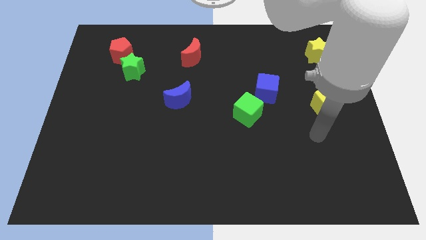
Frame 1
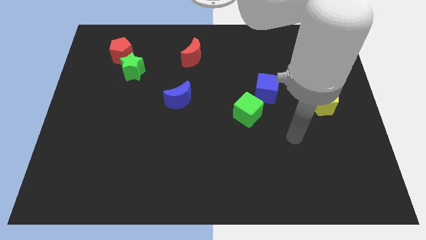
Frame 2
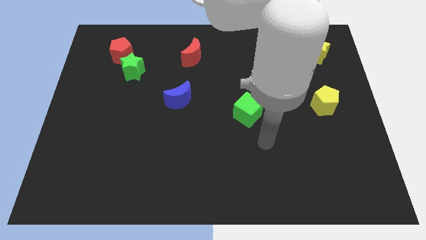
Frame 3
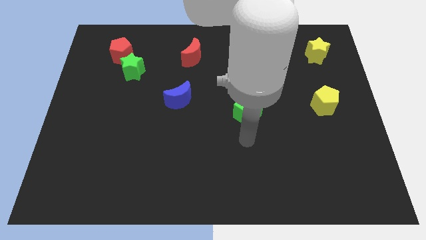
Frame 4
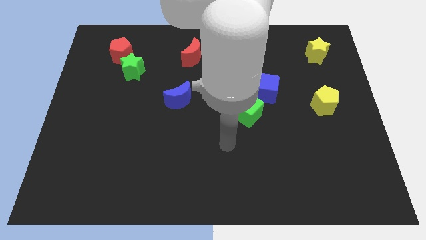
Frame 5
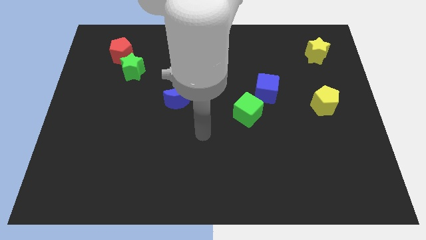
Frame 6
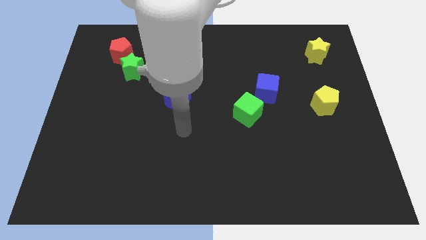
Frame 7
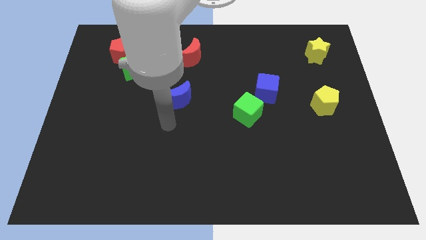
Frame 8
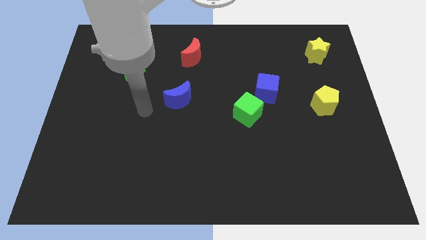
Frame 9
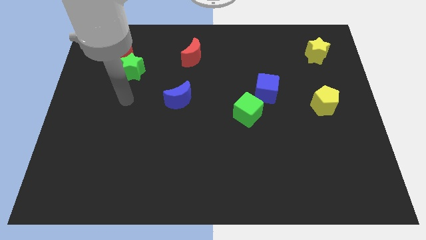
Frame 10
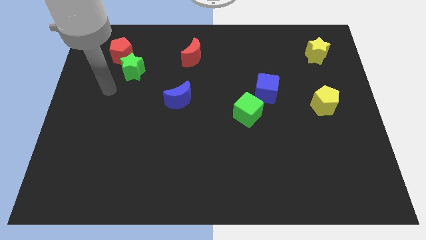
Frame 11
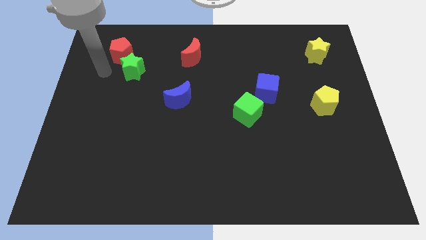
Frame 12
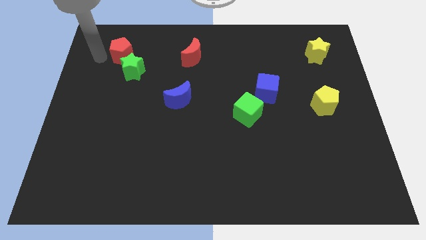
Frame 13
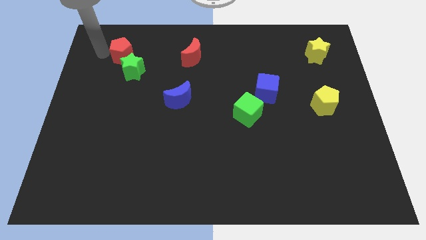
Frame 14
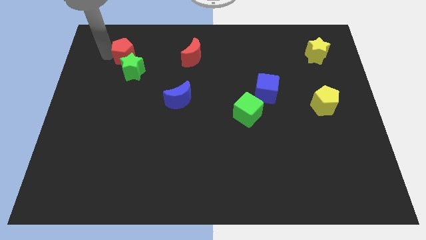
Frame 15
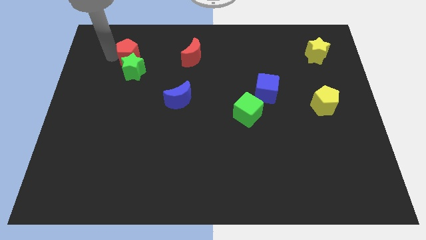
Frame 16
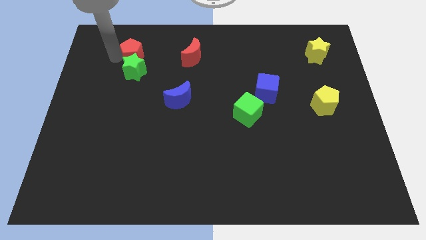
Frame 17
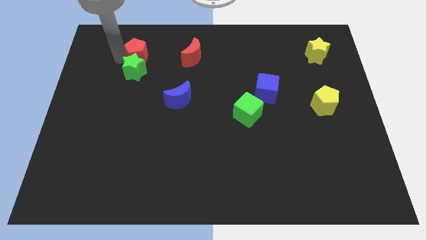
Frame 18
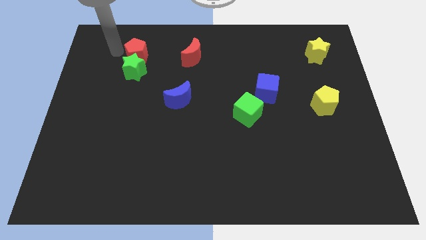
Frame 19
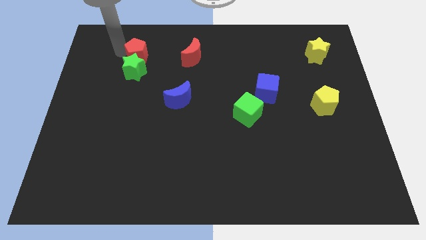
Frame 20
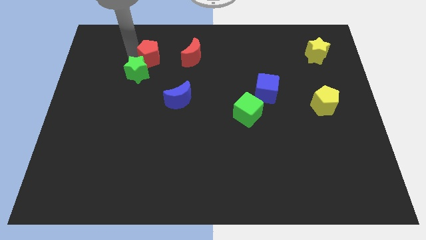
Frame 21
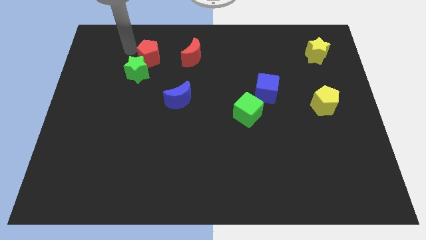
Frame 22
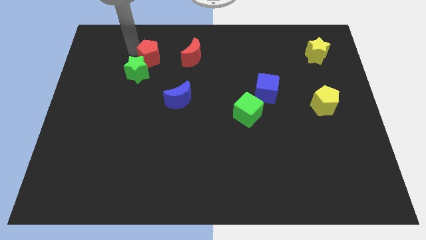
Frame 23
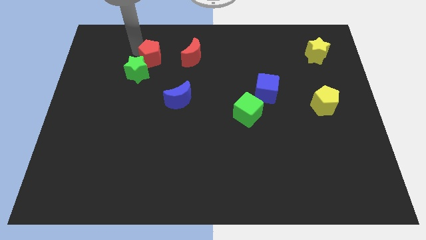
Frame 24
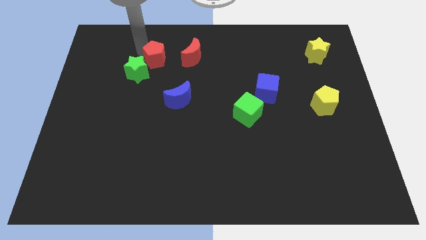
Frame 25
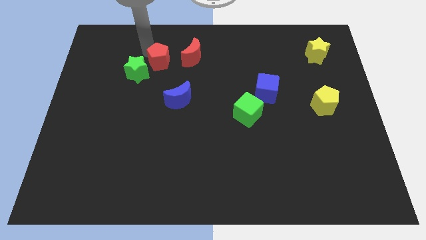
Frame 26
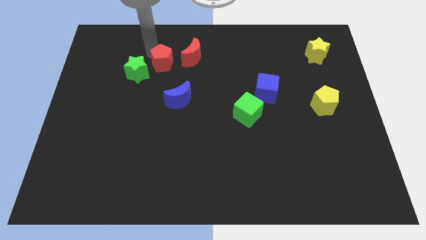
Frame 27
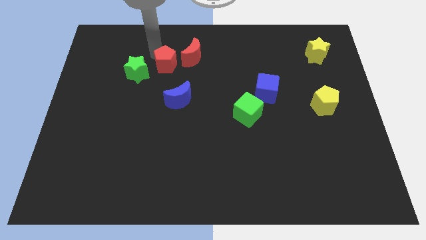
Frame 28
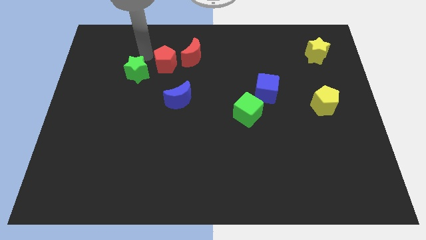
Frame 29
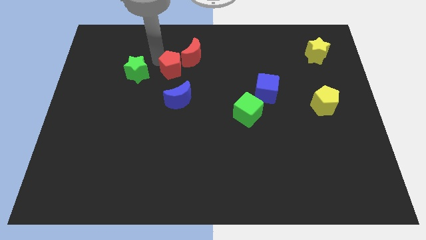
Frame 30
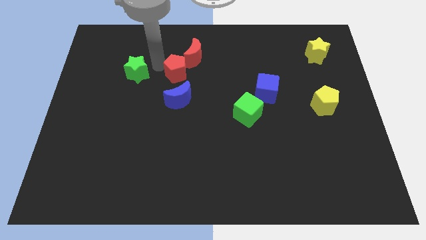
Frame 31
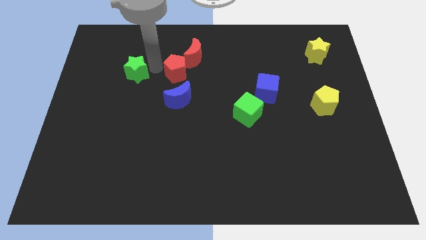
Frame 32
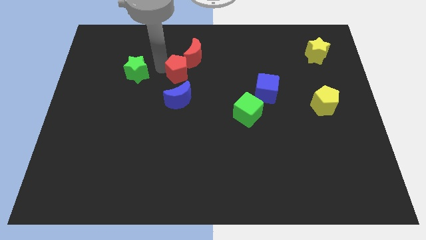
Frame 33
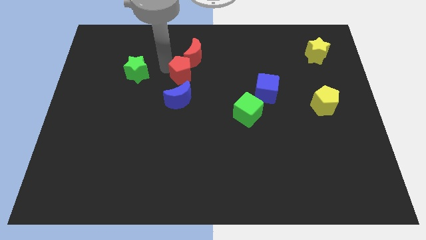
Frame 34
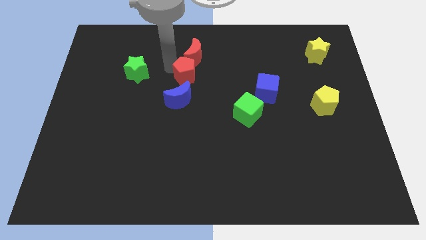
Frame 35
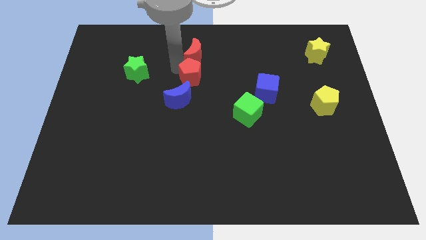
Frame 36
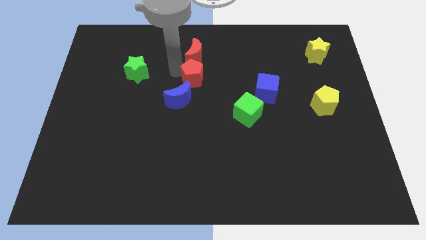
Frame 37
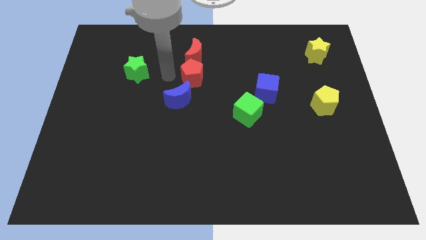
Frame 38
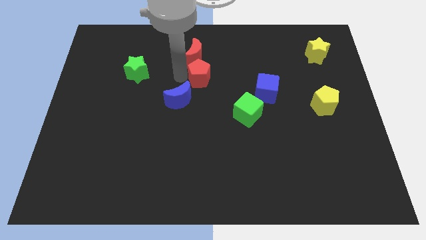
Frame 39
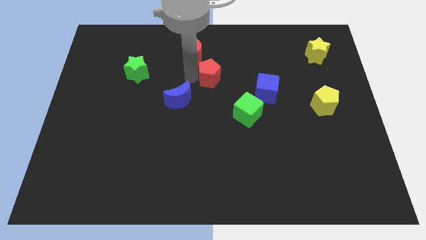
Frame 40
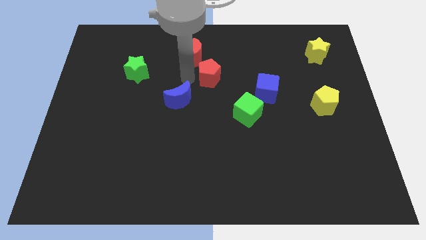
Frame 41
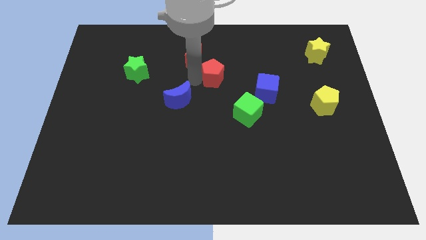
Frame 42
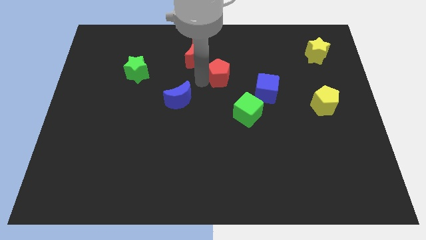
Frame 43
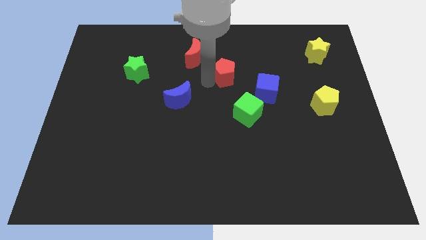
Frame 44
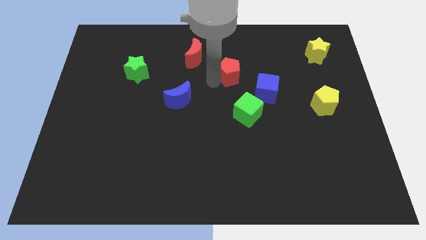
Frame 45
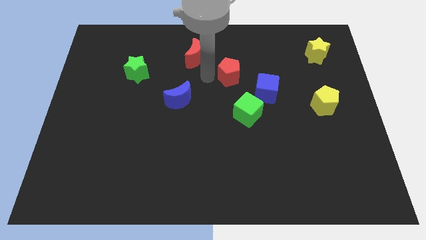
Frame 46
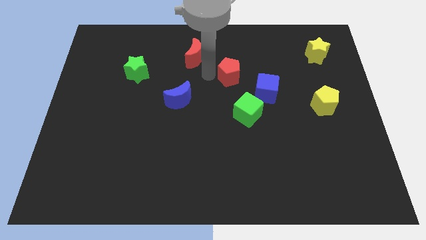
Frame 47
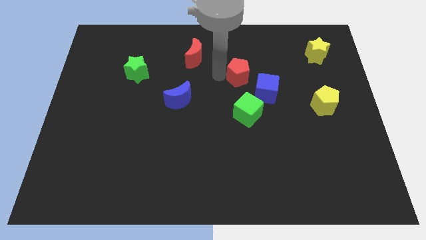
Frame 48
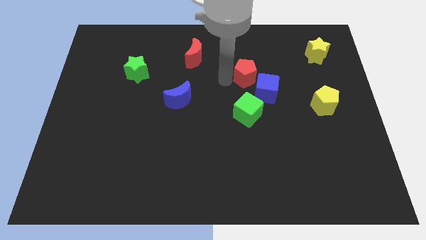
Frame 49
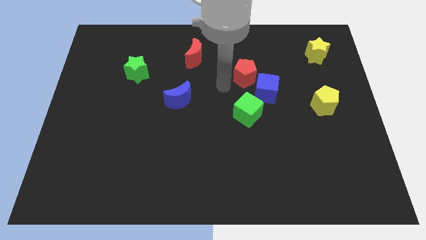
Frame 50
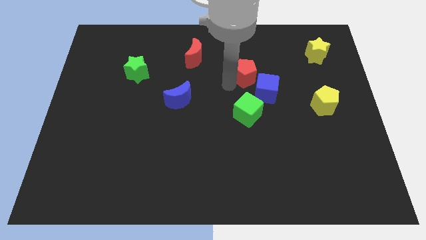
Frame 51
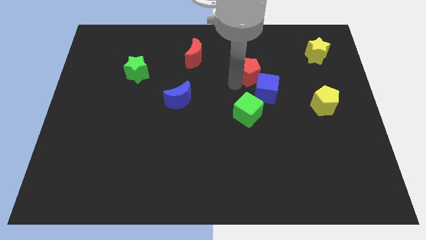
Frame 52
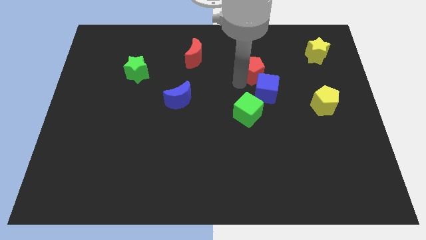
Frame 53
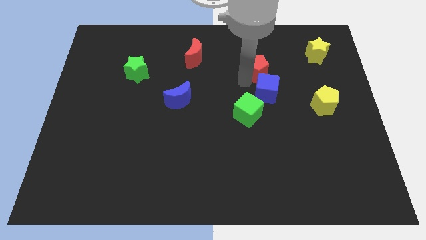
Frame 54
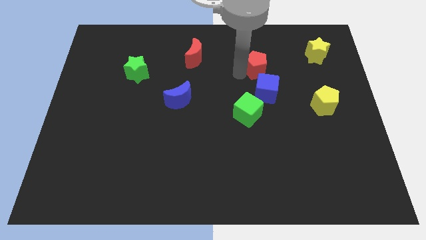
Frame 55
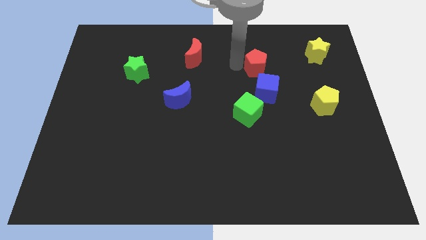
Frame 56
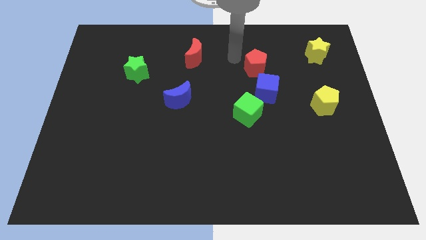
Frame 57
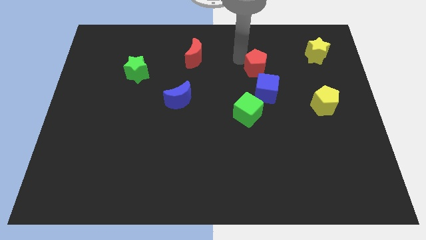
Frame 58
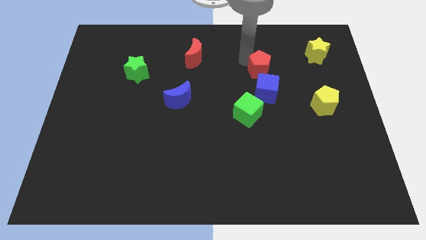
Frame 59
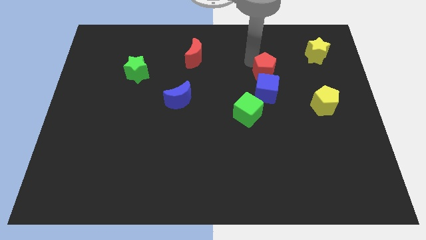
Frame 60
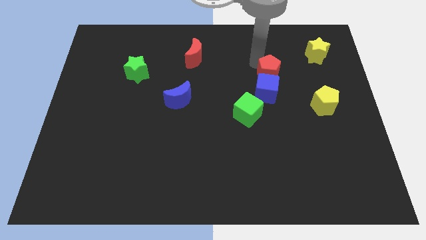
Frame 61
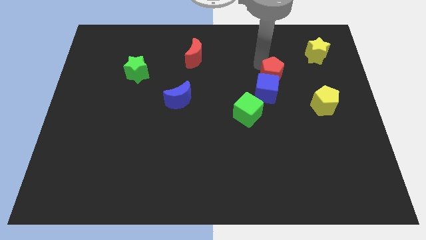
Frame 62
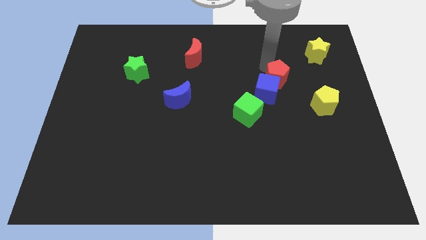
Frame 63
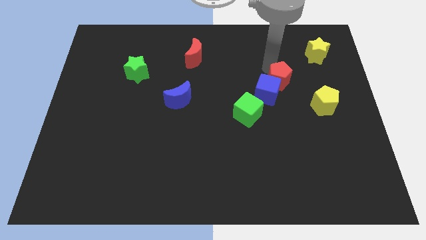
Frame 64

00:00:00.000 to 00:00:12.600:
move the red pentagon to the top left of the yellow pentagon
